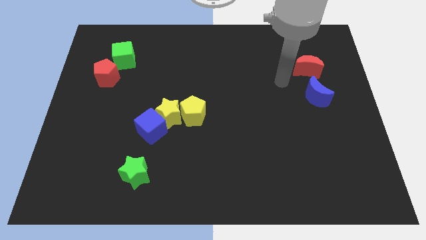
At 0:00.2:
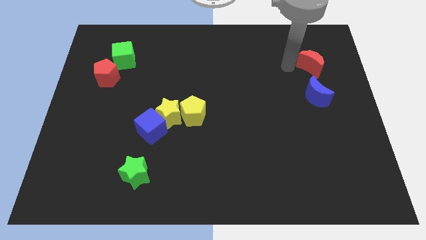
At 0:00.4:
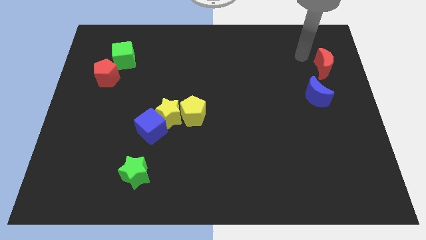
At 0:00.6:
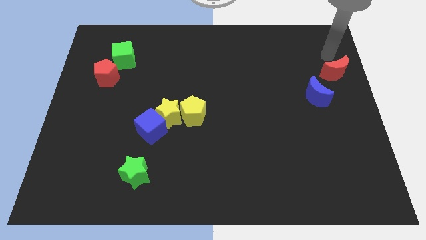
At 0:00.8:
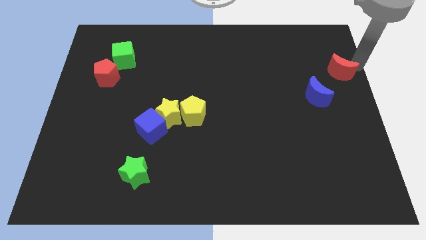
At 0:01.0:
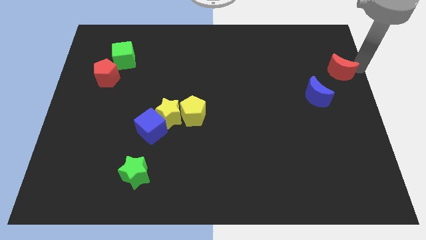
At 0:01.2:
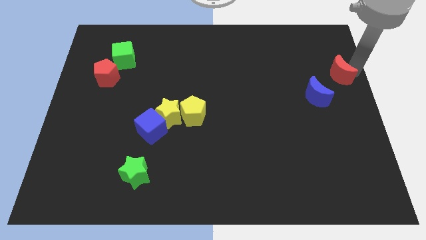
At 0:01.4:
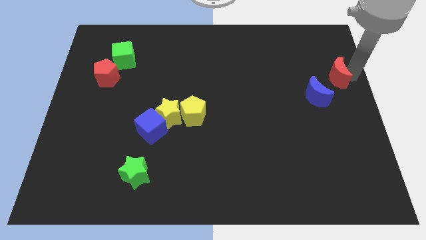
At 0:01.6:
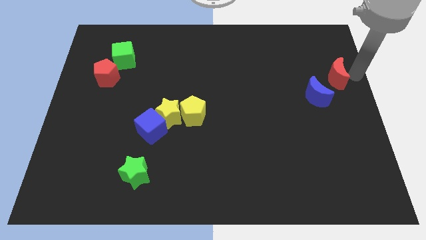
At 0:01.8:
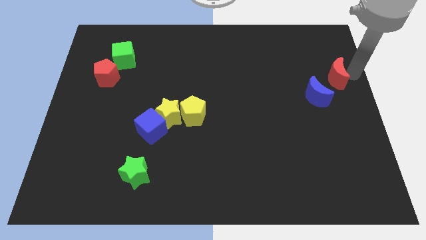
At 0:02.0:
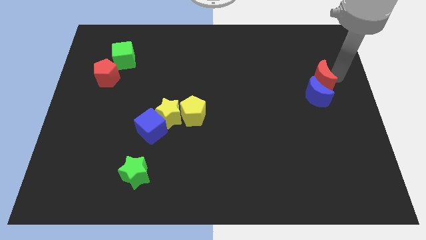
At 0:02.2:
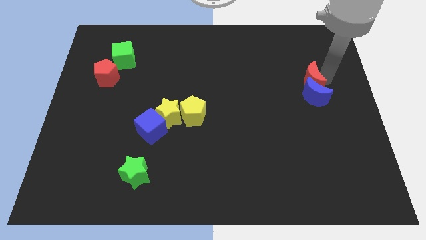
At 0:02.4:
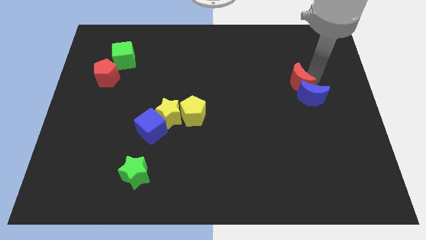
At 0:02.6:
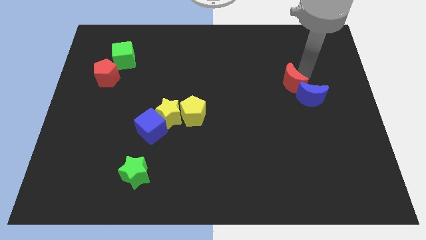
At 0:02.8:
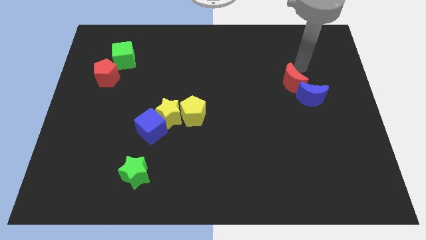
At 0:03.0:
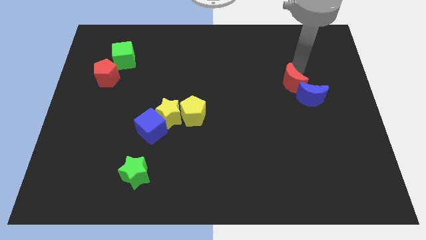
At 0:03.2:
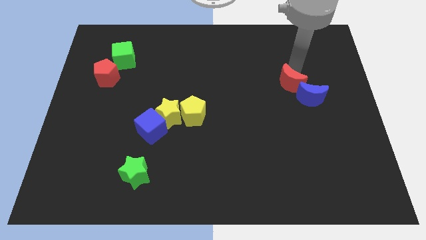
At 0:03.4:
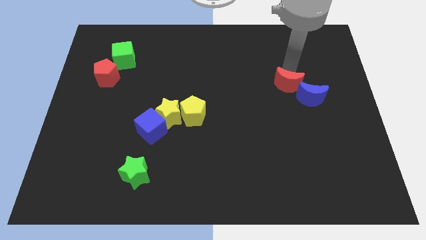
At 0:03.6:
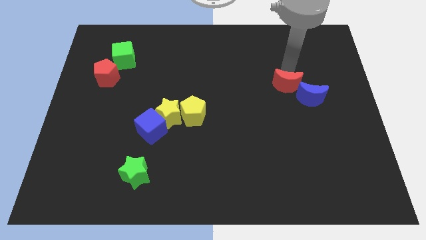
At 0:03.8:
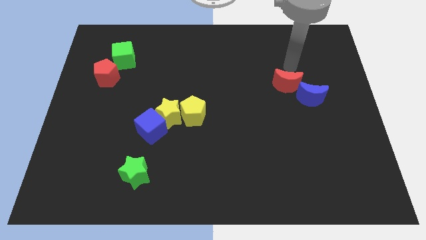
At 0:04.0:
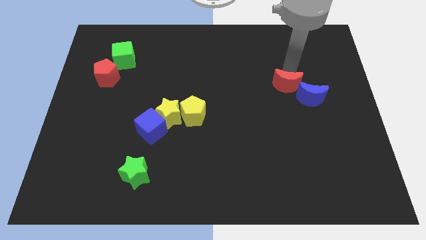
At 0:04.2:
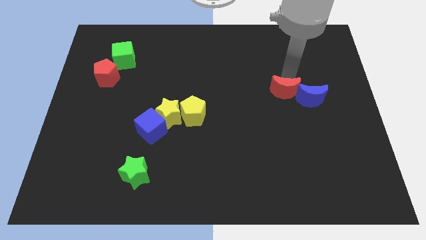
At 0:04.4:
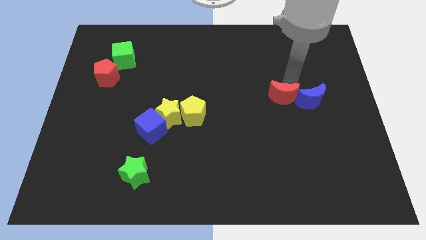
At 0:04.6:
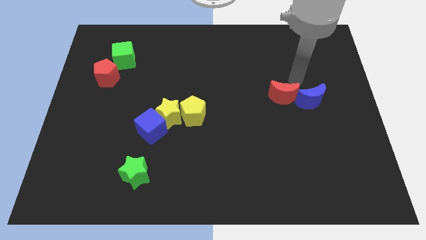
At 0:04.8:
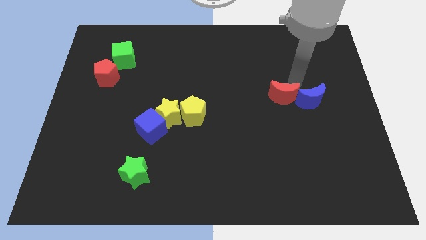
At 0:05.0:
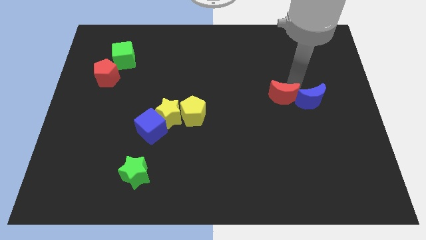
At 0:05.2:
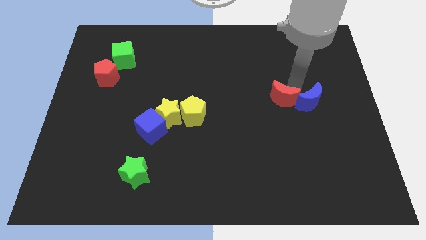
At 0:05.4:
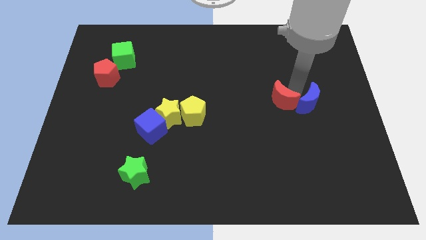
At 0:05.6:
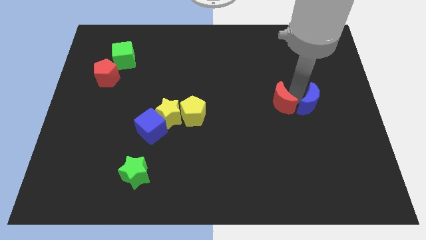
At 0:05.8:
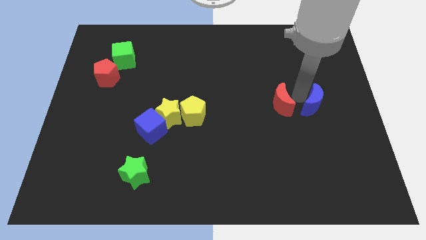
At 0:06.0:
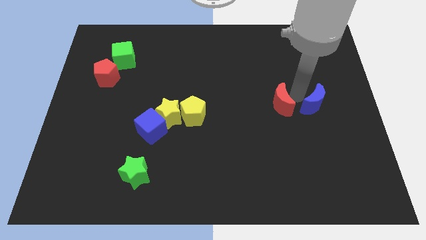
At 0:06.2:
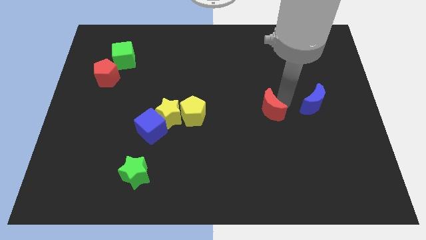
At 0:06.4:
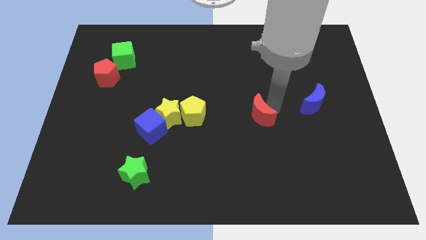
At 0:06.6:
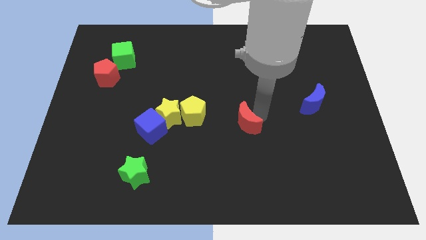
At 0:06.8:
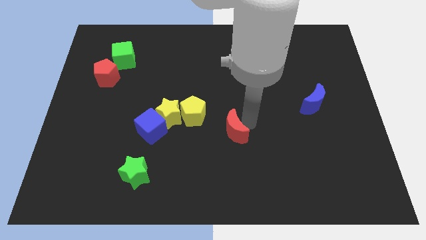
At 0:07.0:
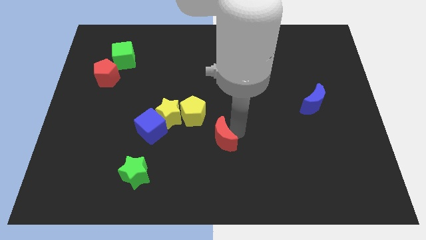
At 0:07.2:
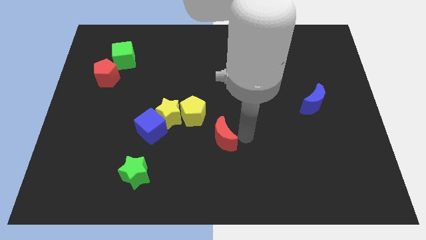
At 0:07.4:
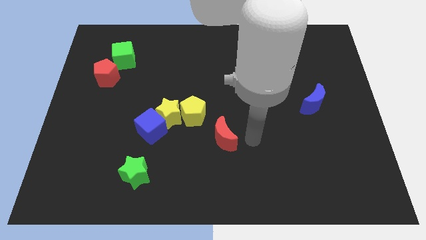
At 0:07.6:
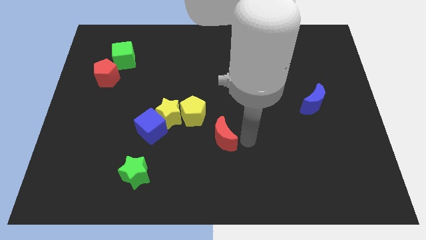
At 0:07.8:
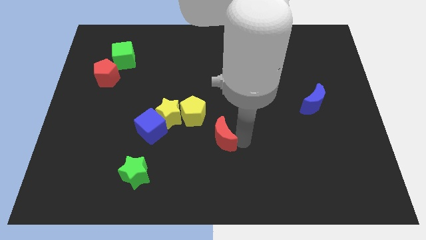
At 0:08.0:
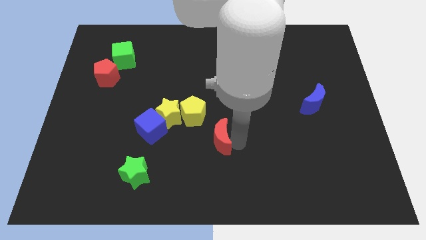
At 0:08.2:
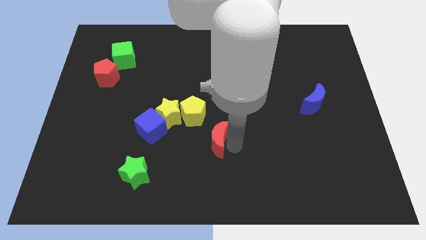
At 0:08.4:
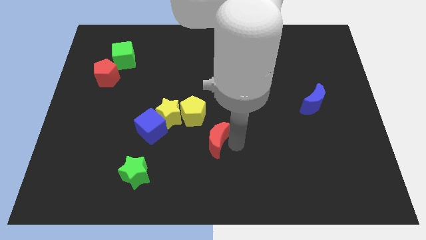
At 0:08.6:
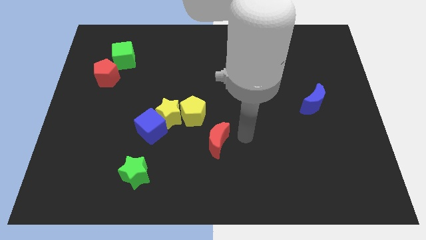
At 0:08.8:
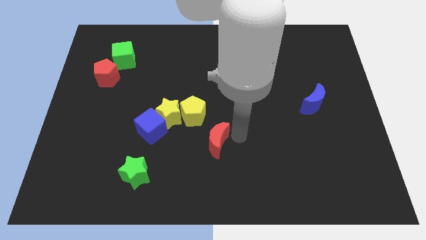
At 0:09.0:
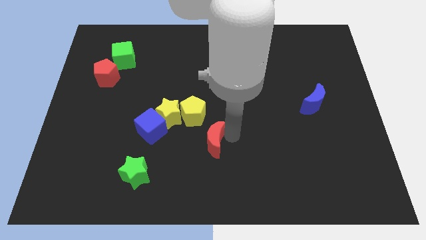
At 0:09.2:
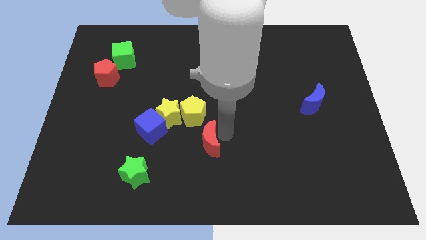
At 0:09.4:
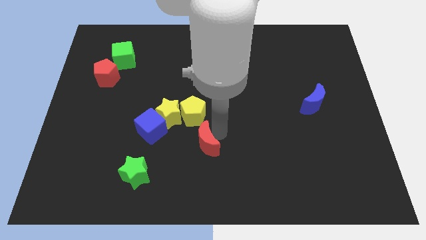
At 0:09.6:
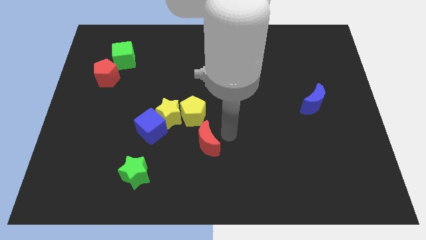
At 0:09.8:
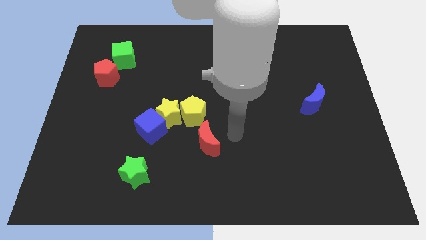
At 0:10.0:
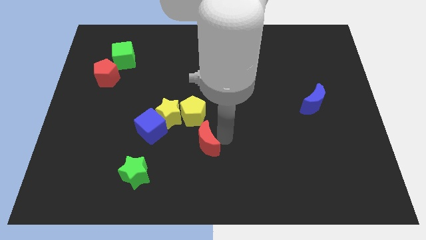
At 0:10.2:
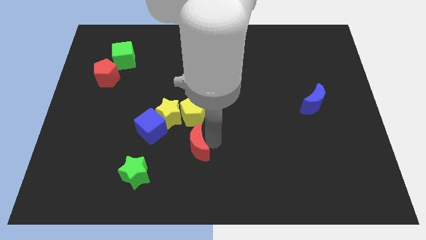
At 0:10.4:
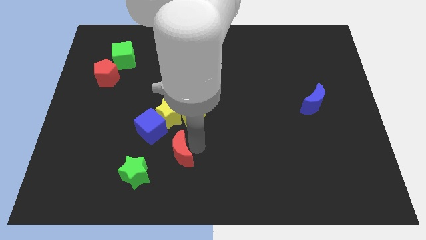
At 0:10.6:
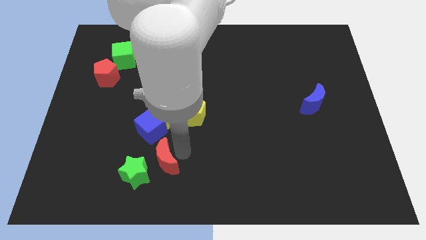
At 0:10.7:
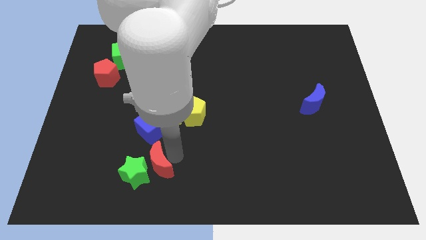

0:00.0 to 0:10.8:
push the red moon towards the green star
